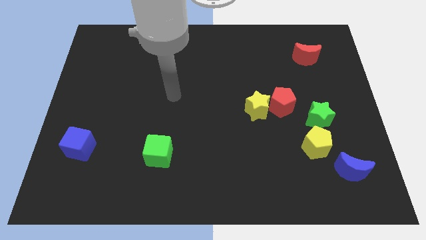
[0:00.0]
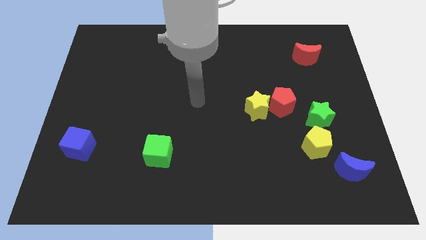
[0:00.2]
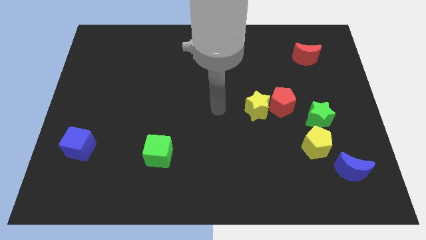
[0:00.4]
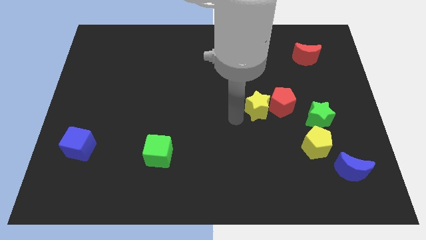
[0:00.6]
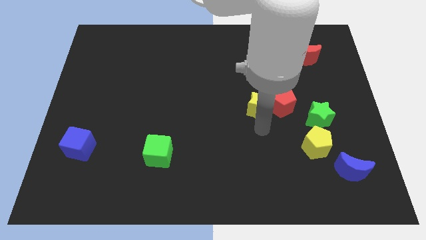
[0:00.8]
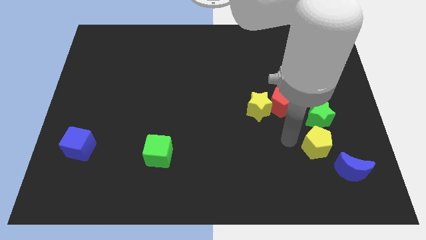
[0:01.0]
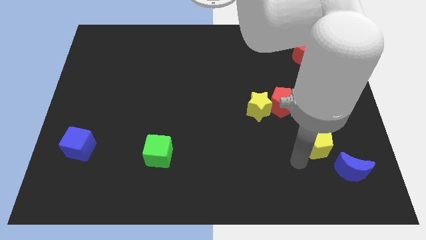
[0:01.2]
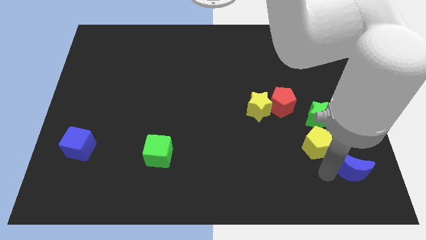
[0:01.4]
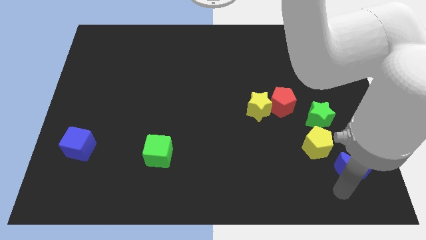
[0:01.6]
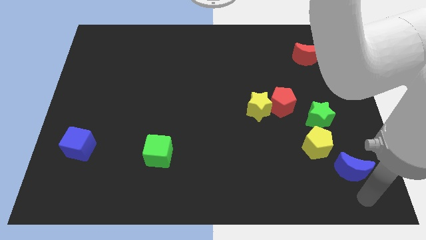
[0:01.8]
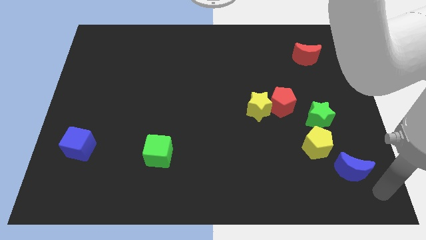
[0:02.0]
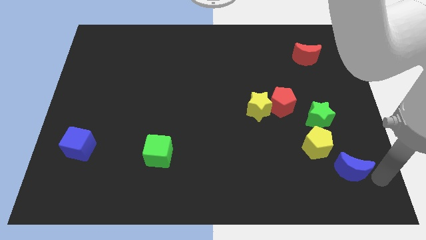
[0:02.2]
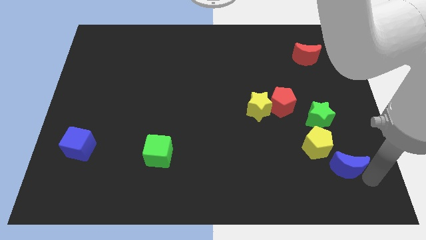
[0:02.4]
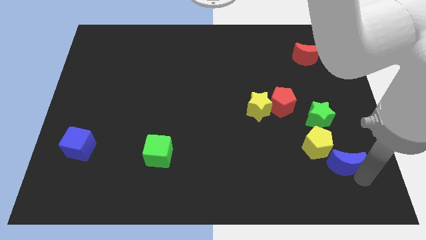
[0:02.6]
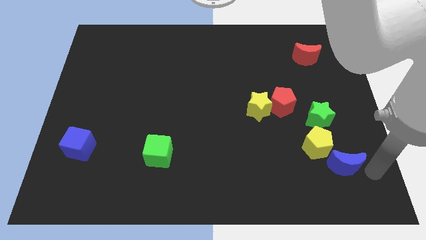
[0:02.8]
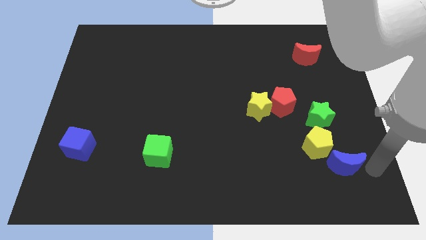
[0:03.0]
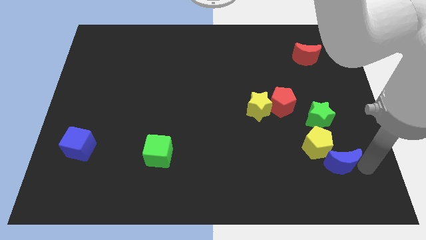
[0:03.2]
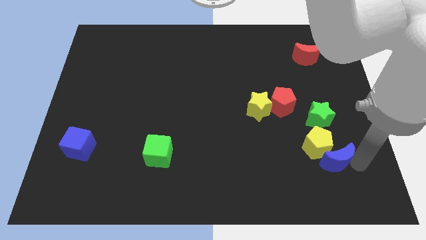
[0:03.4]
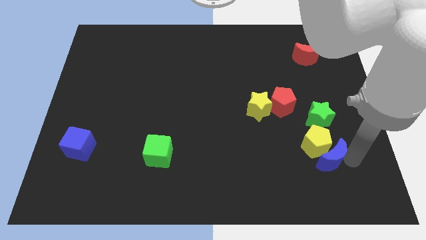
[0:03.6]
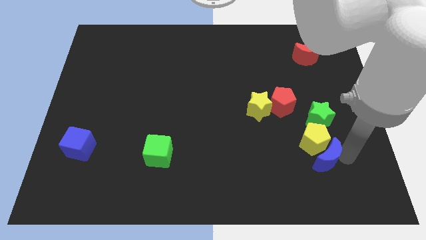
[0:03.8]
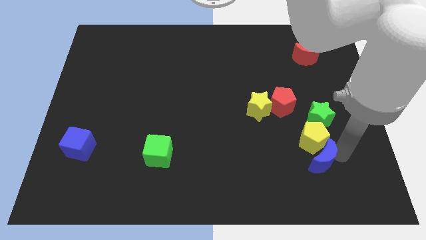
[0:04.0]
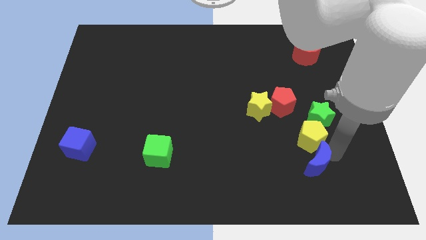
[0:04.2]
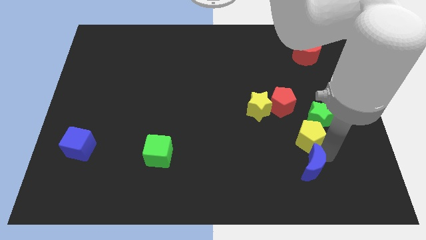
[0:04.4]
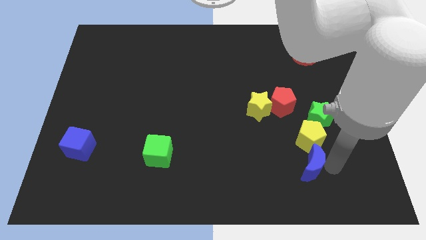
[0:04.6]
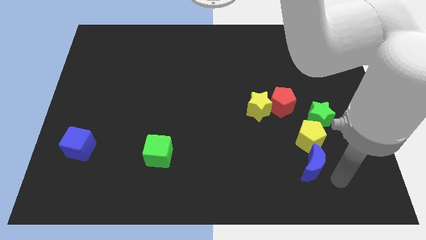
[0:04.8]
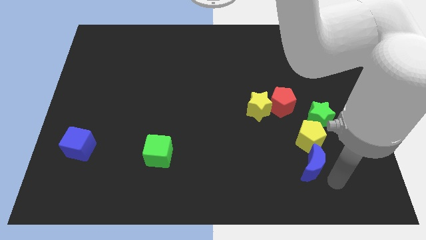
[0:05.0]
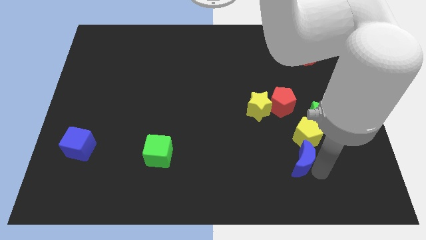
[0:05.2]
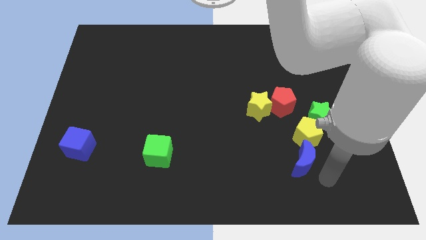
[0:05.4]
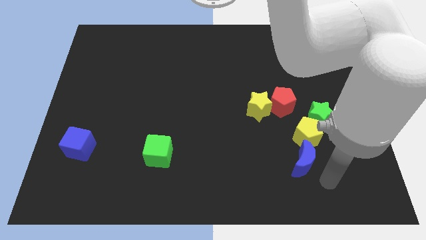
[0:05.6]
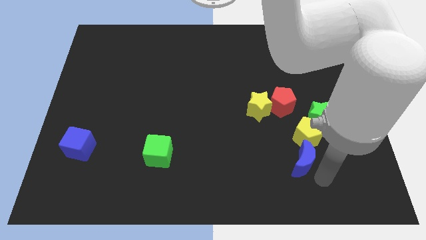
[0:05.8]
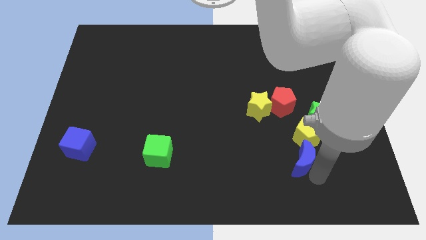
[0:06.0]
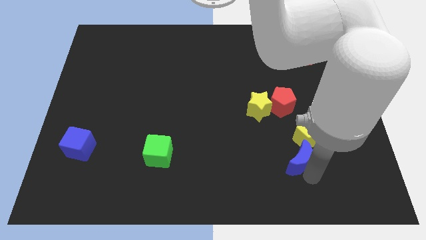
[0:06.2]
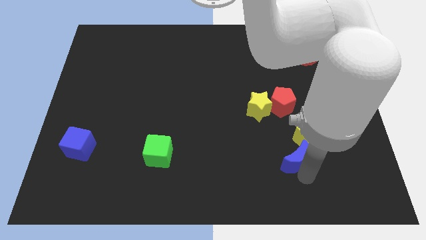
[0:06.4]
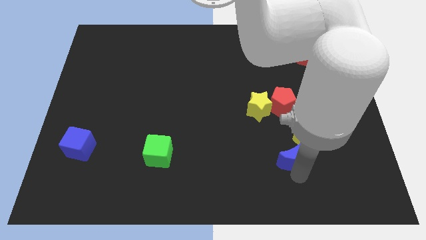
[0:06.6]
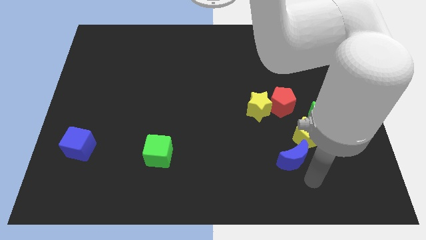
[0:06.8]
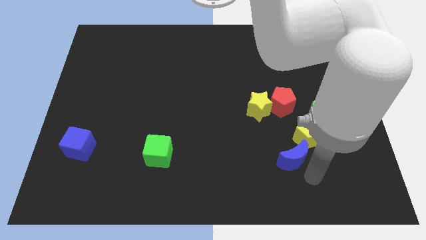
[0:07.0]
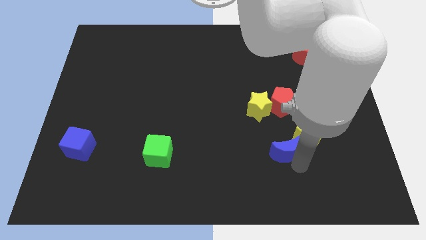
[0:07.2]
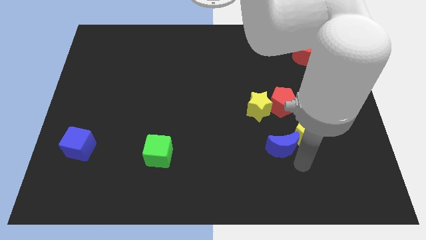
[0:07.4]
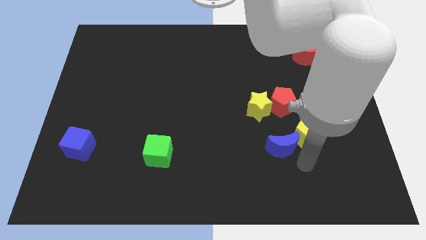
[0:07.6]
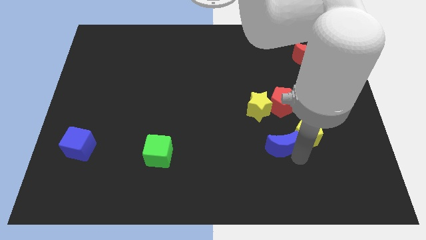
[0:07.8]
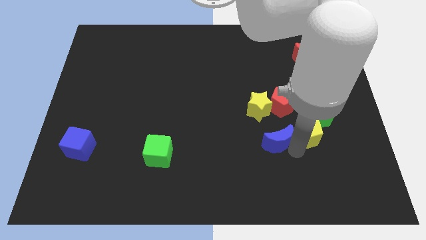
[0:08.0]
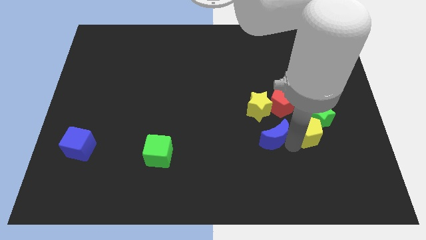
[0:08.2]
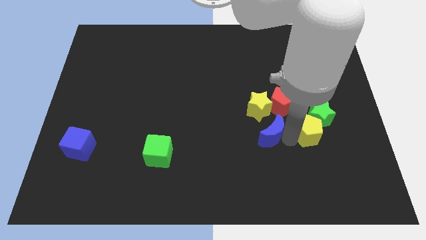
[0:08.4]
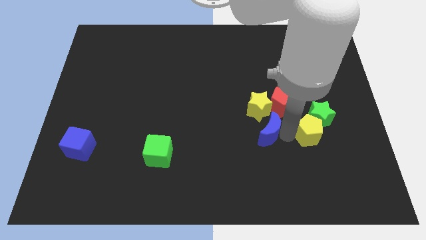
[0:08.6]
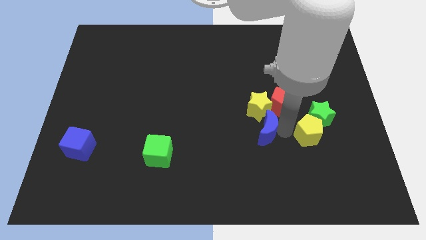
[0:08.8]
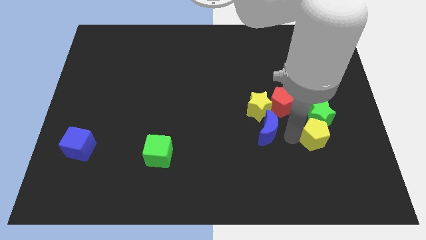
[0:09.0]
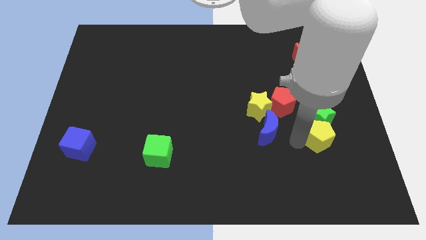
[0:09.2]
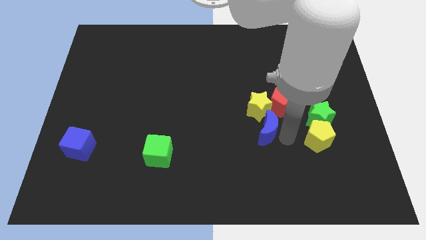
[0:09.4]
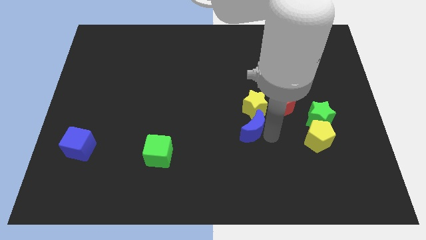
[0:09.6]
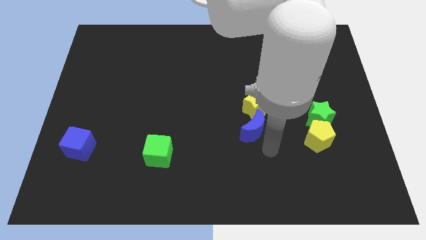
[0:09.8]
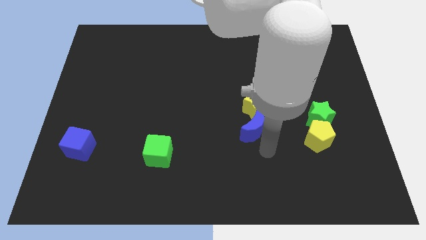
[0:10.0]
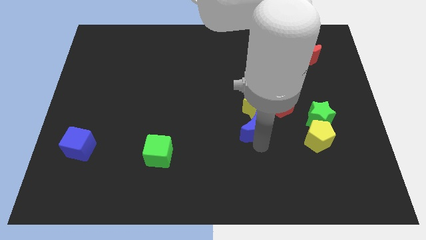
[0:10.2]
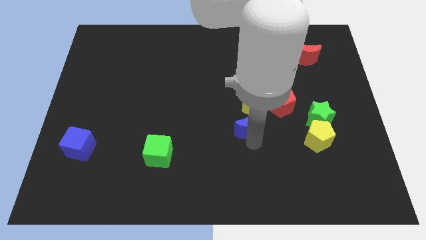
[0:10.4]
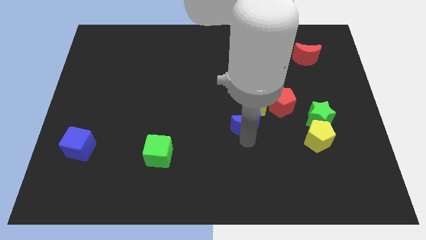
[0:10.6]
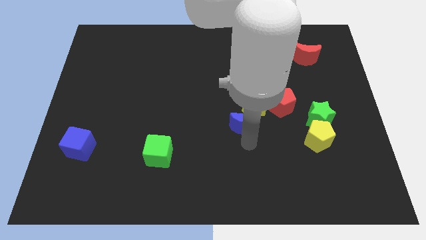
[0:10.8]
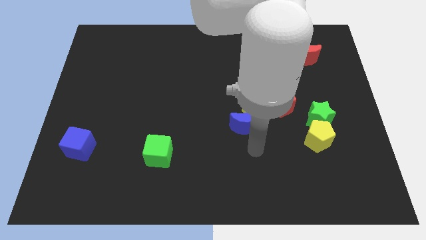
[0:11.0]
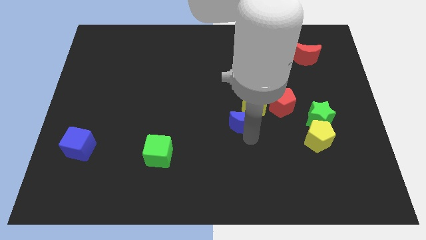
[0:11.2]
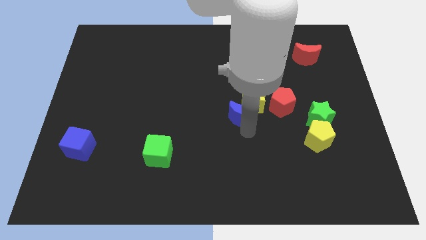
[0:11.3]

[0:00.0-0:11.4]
move the blue moon left of the red pentagon

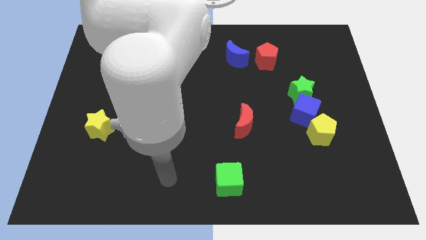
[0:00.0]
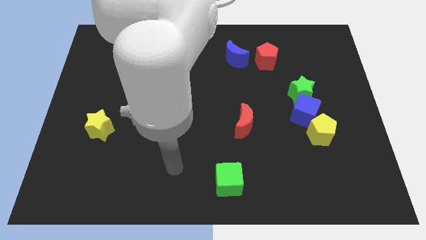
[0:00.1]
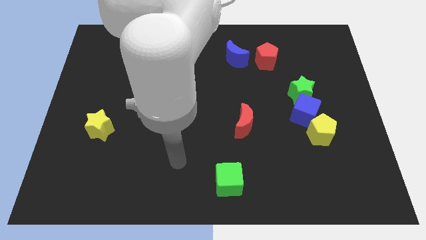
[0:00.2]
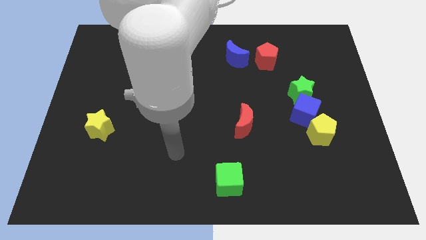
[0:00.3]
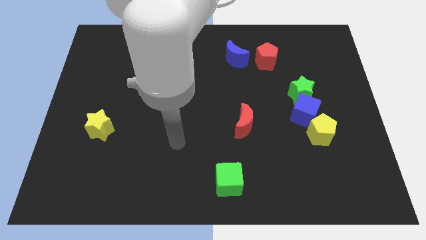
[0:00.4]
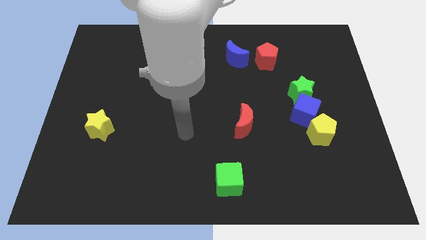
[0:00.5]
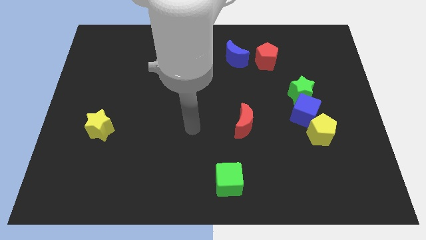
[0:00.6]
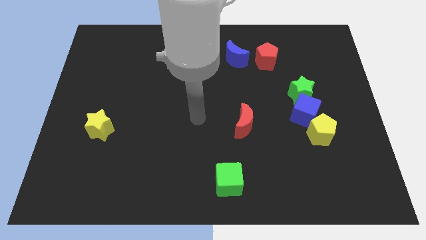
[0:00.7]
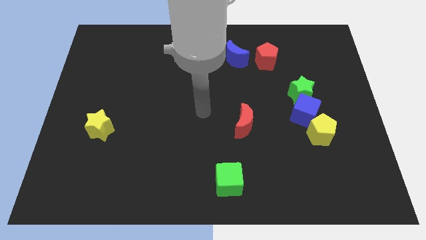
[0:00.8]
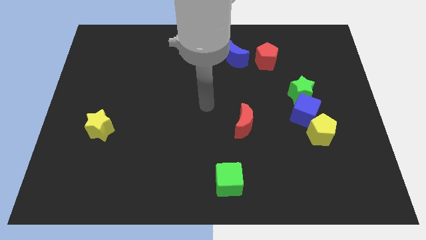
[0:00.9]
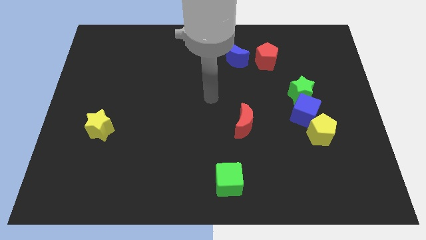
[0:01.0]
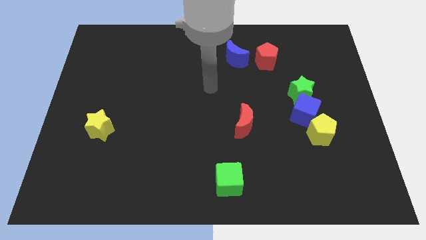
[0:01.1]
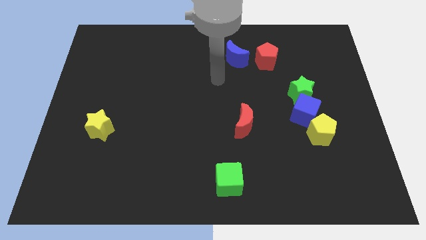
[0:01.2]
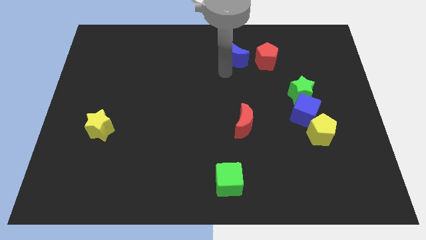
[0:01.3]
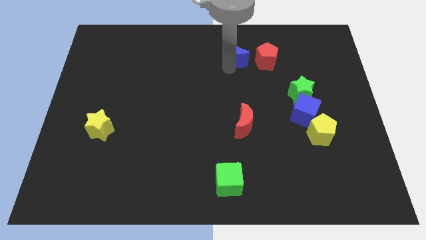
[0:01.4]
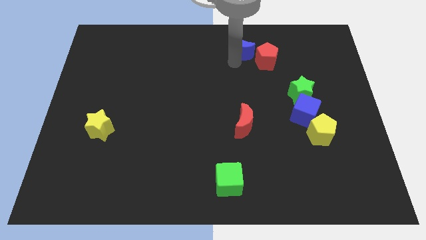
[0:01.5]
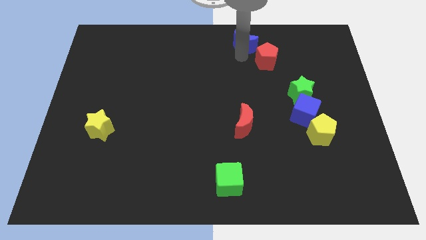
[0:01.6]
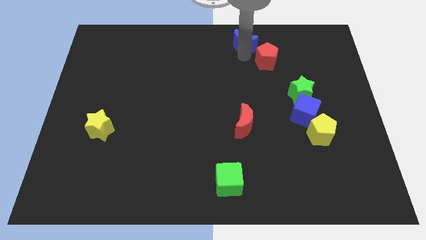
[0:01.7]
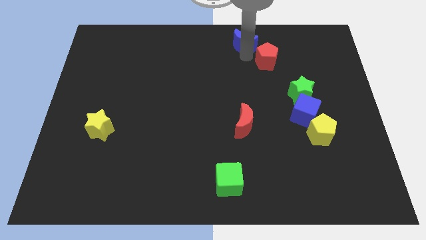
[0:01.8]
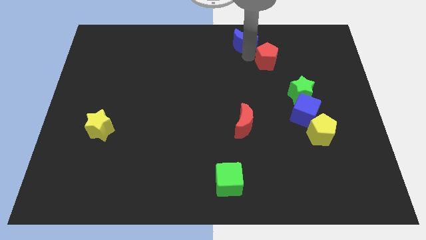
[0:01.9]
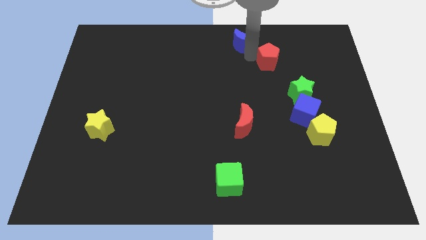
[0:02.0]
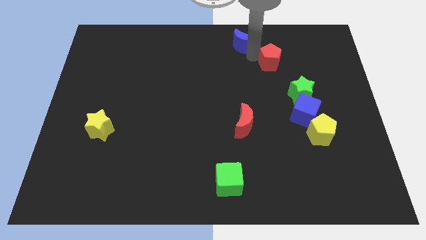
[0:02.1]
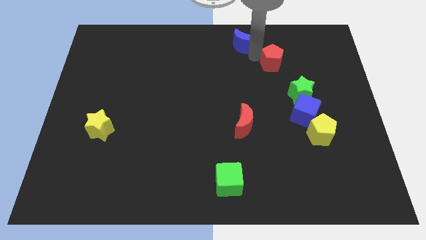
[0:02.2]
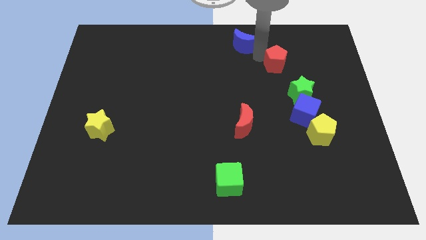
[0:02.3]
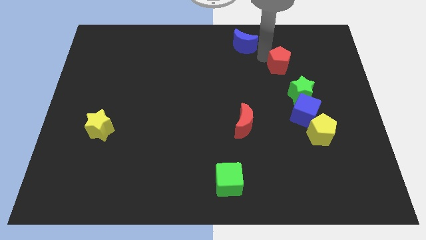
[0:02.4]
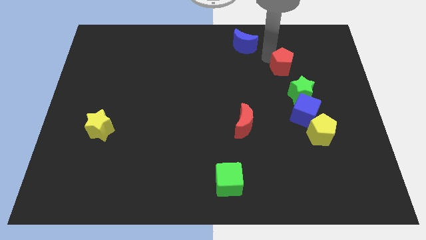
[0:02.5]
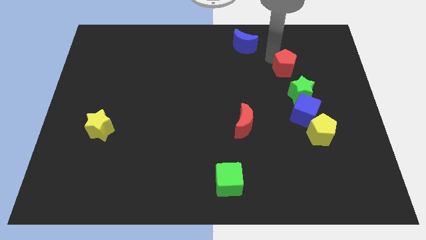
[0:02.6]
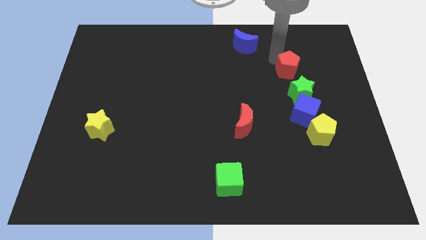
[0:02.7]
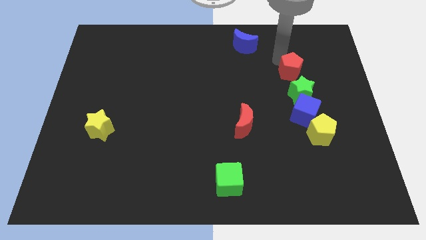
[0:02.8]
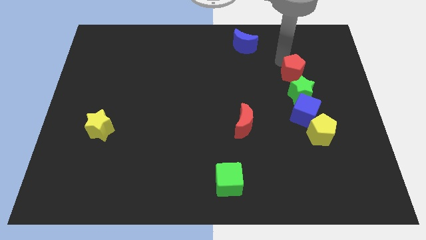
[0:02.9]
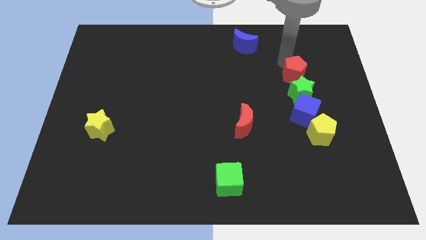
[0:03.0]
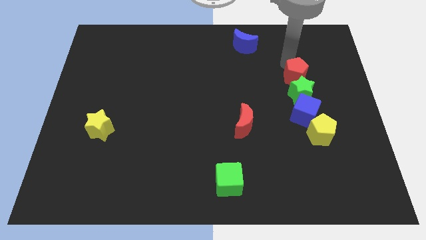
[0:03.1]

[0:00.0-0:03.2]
move the red pentagon diagonally up and to the right of the green star
